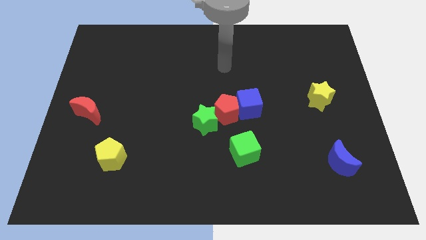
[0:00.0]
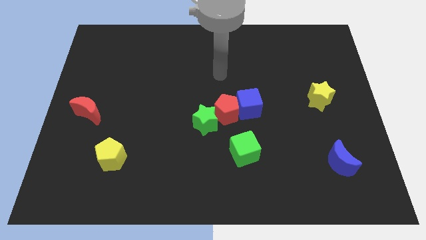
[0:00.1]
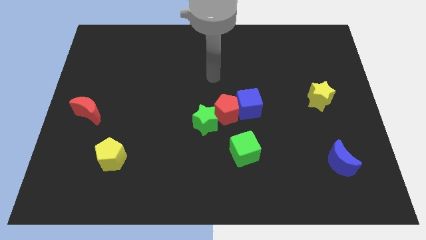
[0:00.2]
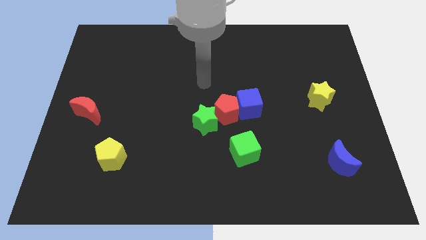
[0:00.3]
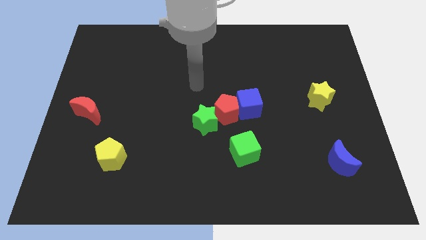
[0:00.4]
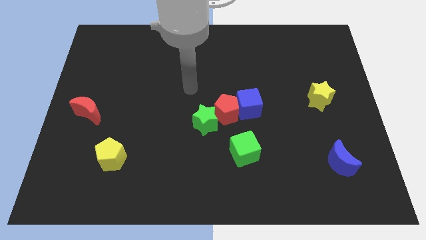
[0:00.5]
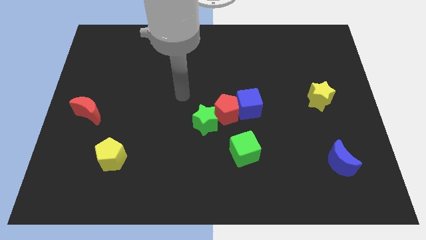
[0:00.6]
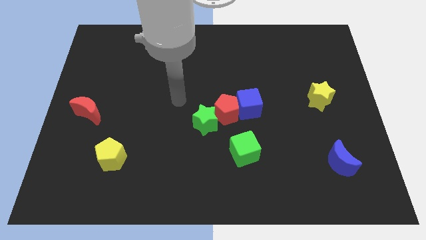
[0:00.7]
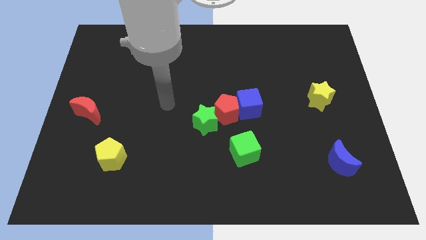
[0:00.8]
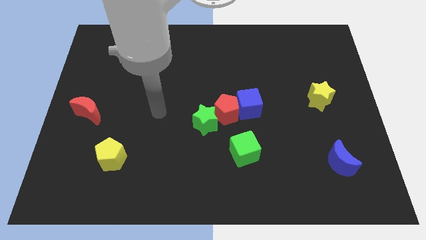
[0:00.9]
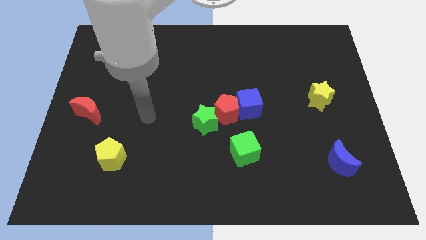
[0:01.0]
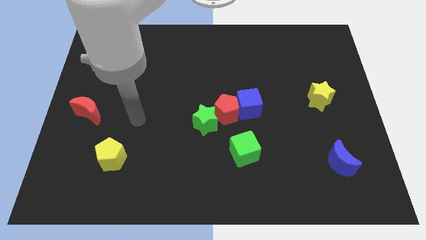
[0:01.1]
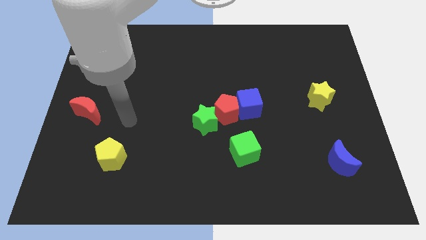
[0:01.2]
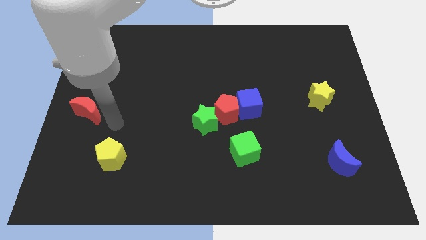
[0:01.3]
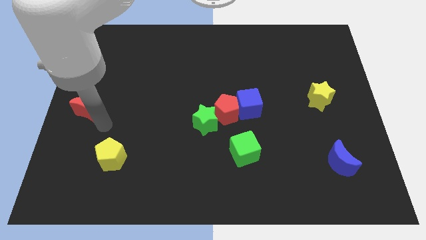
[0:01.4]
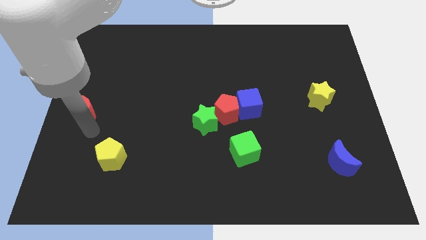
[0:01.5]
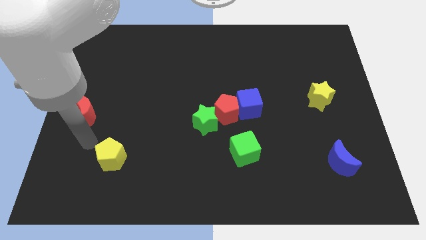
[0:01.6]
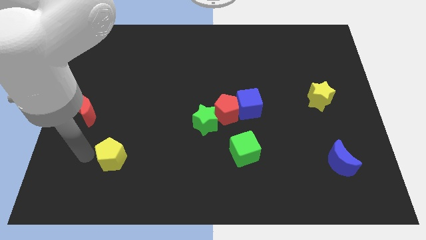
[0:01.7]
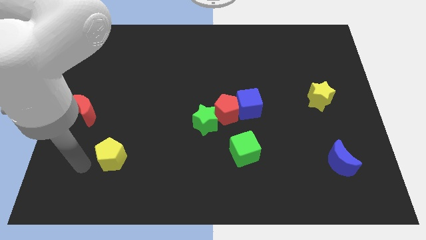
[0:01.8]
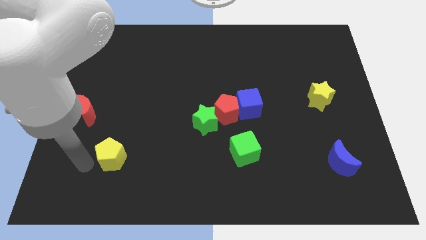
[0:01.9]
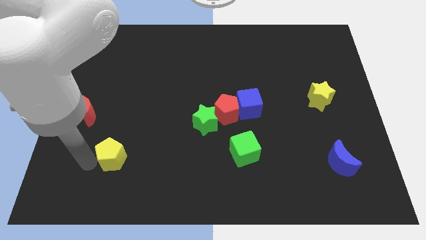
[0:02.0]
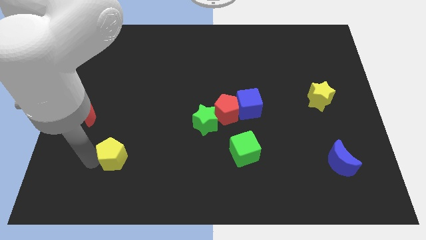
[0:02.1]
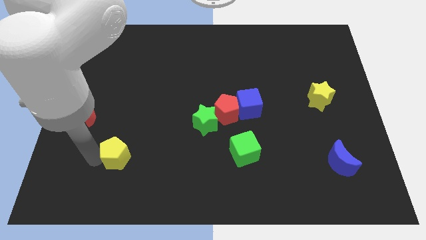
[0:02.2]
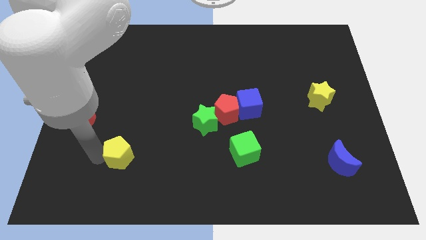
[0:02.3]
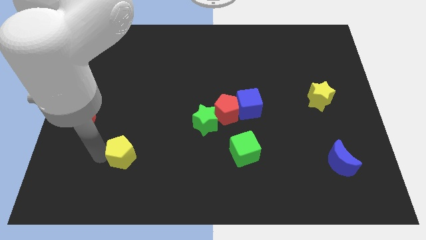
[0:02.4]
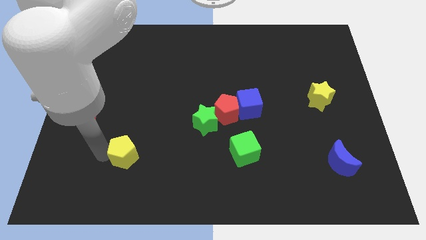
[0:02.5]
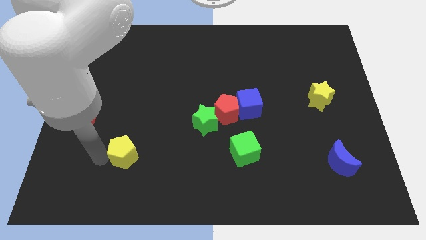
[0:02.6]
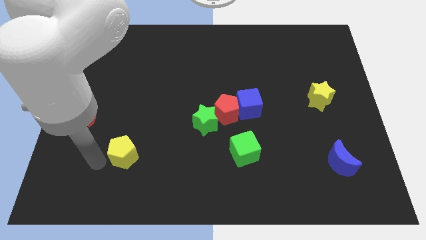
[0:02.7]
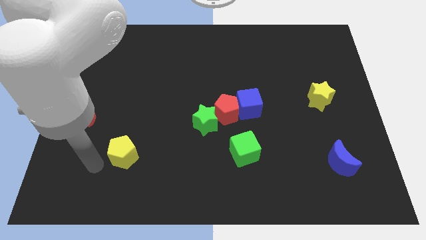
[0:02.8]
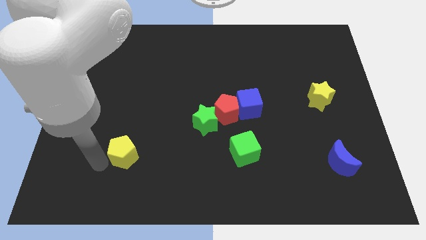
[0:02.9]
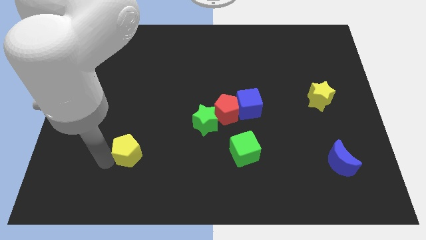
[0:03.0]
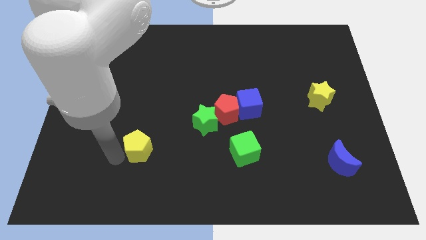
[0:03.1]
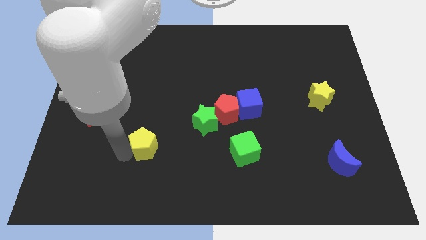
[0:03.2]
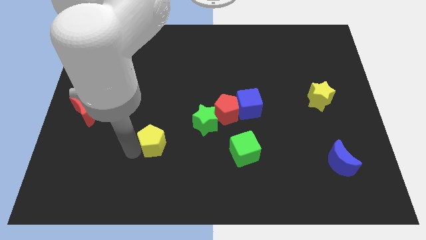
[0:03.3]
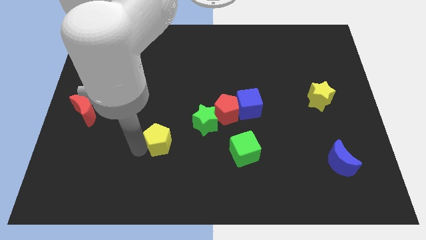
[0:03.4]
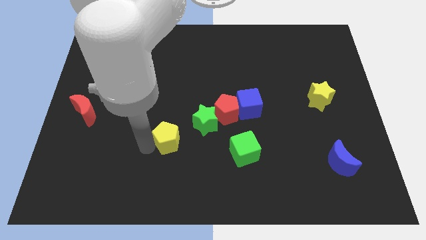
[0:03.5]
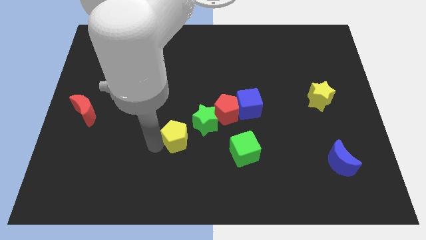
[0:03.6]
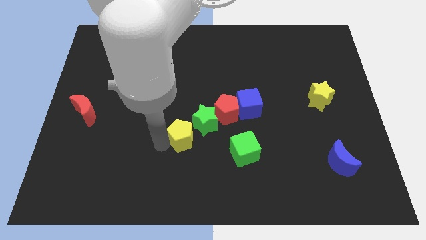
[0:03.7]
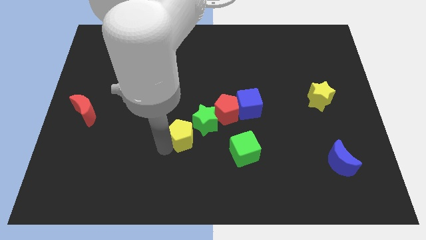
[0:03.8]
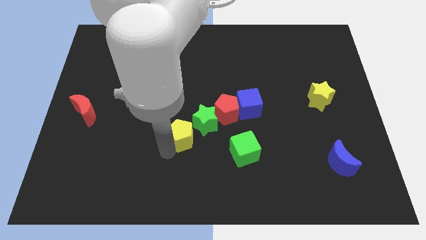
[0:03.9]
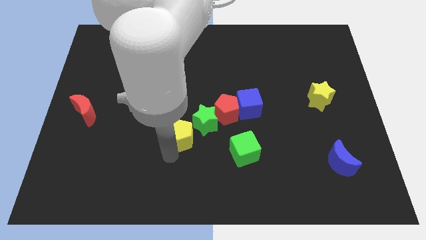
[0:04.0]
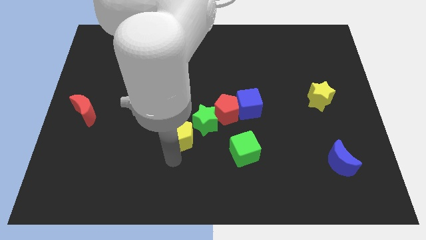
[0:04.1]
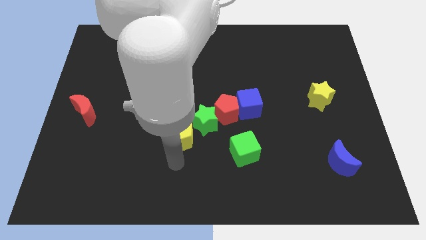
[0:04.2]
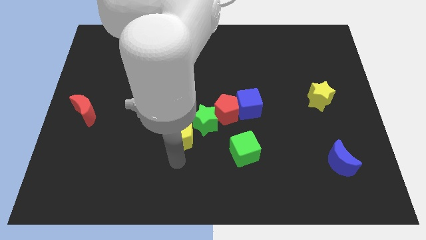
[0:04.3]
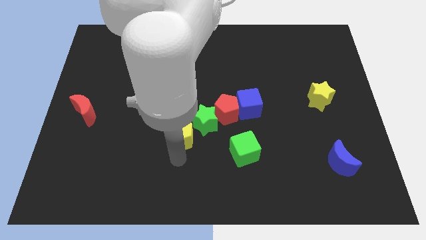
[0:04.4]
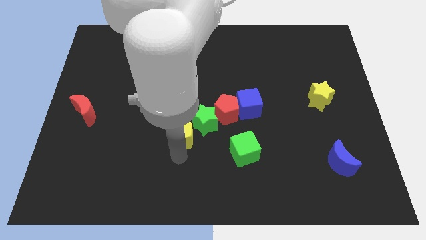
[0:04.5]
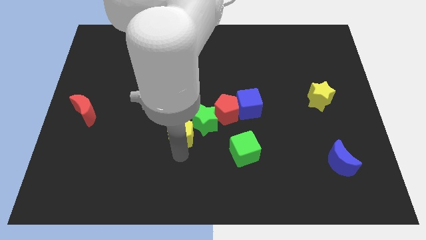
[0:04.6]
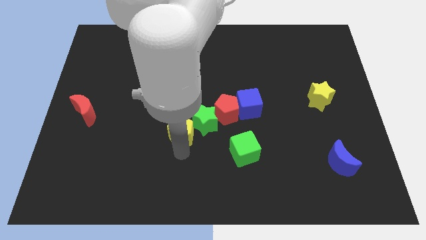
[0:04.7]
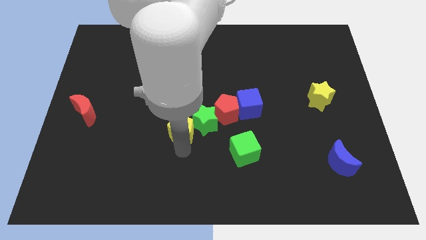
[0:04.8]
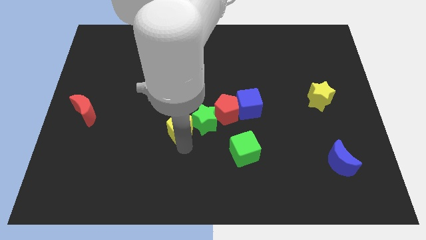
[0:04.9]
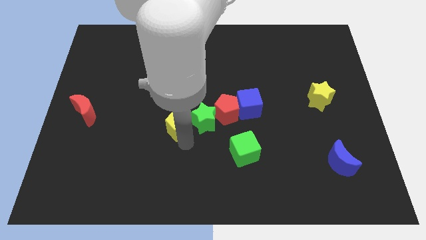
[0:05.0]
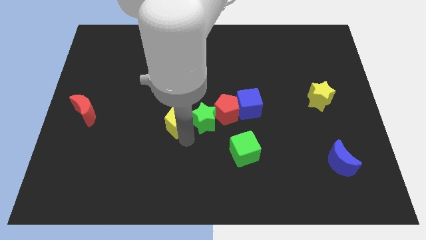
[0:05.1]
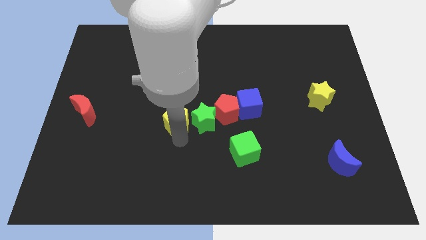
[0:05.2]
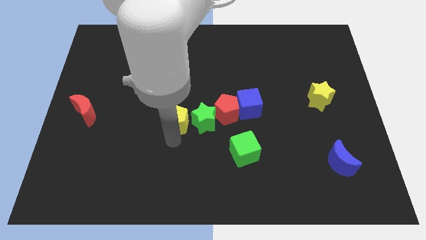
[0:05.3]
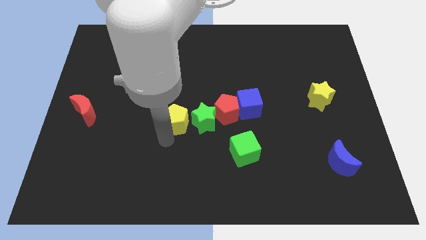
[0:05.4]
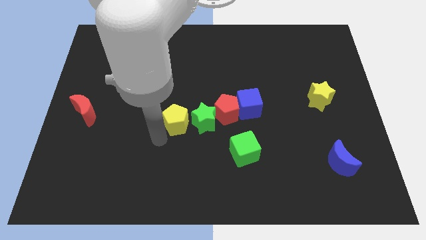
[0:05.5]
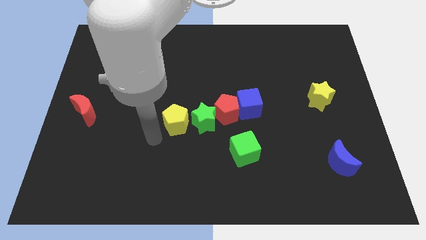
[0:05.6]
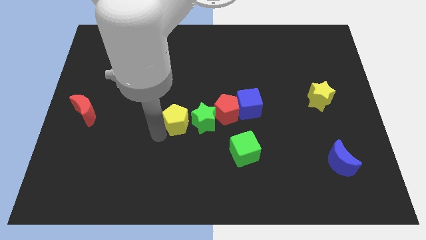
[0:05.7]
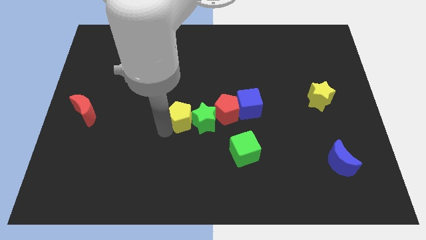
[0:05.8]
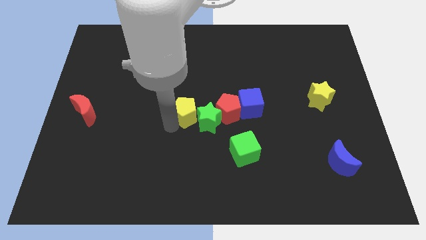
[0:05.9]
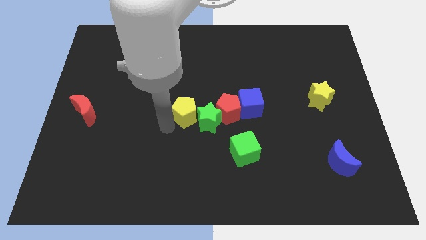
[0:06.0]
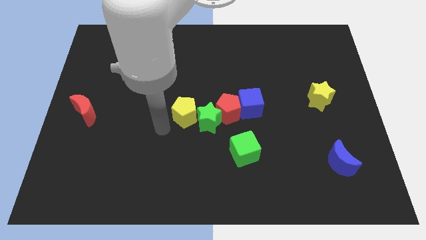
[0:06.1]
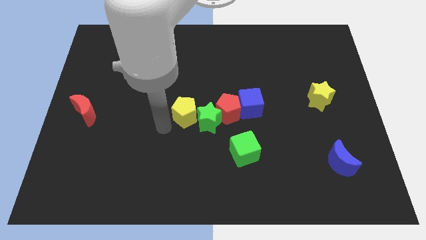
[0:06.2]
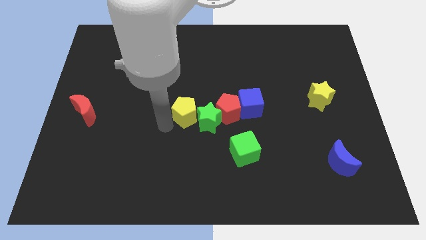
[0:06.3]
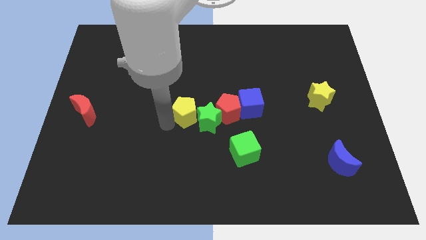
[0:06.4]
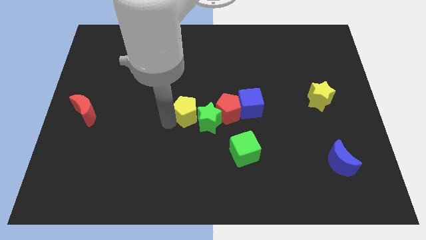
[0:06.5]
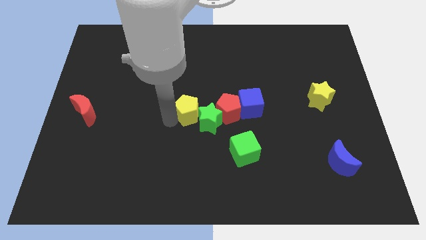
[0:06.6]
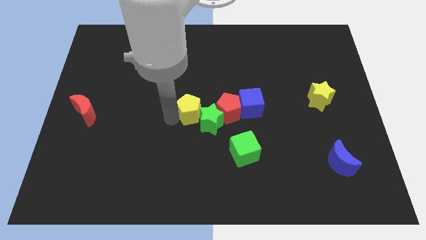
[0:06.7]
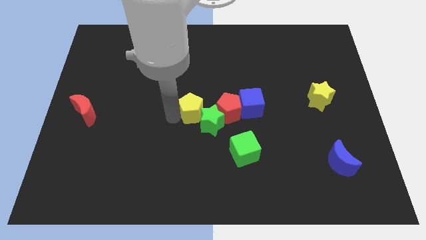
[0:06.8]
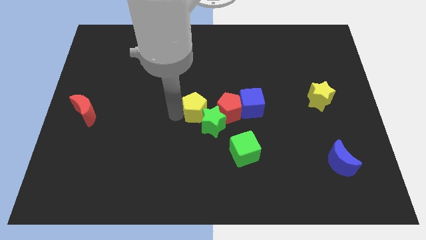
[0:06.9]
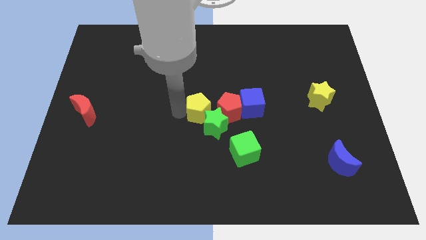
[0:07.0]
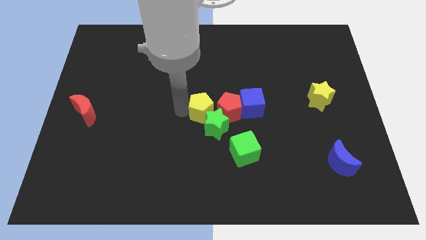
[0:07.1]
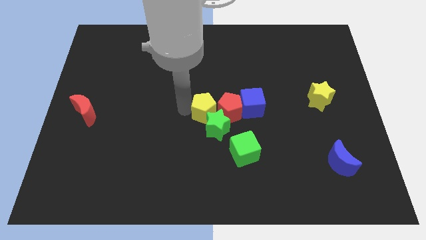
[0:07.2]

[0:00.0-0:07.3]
push the yellow pentagon next to the red pentagon
